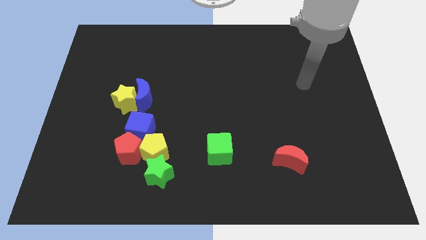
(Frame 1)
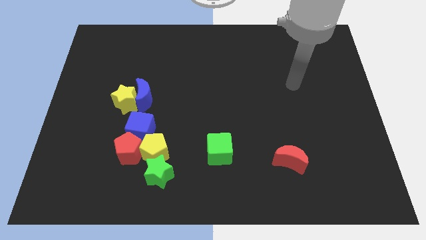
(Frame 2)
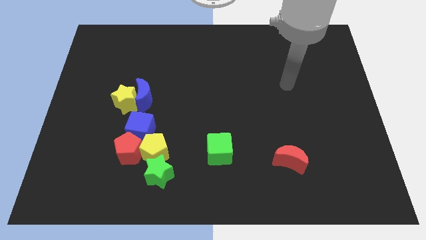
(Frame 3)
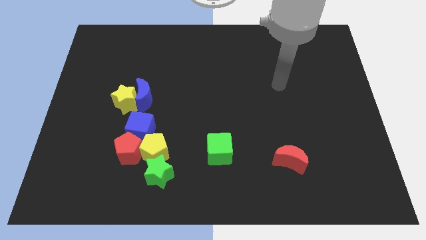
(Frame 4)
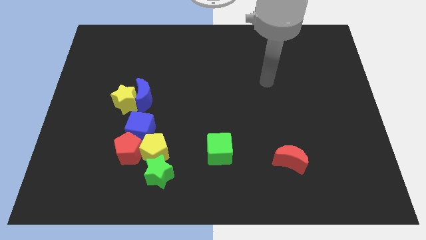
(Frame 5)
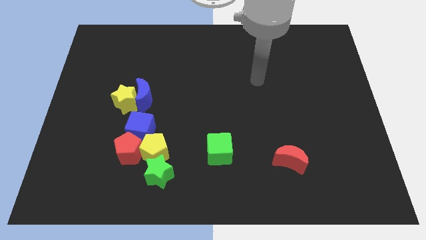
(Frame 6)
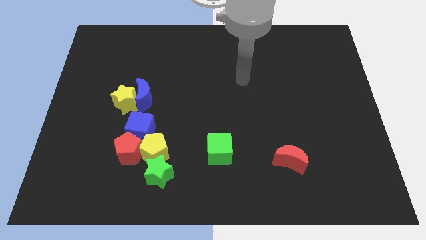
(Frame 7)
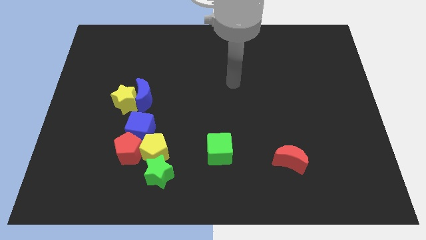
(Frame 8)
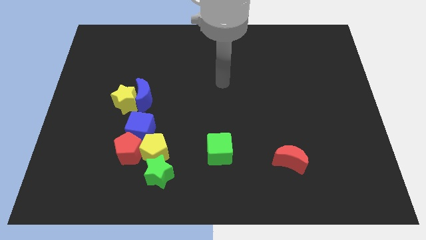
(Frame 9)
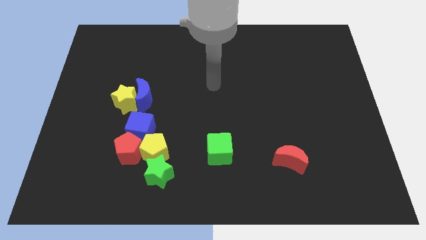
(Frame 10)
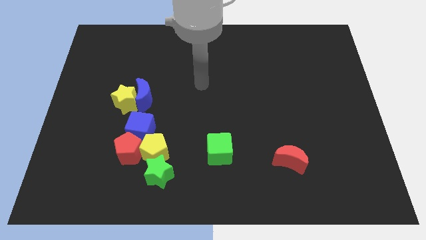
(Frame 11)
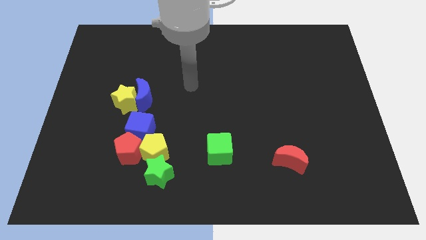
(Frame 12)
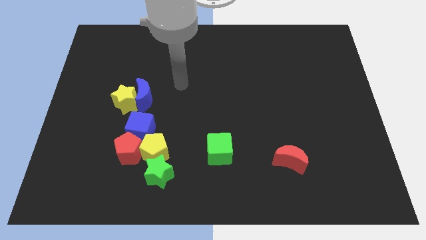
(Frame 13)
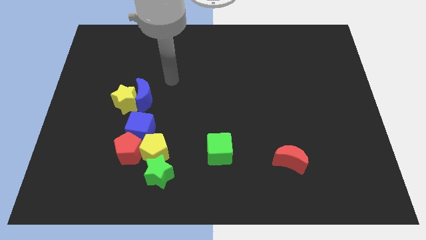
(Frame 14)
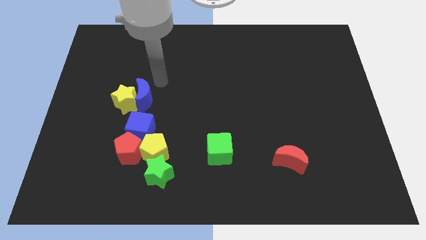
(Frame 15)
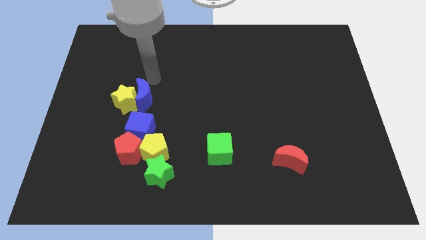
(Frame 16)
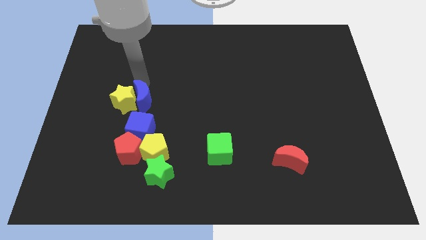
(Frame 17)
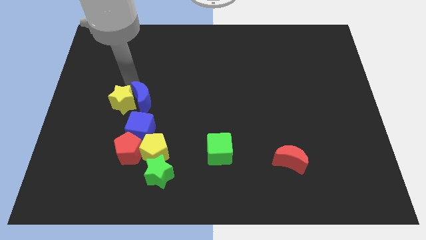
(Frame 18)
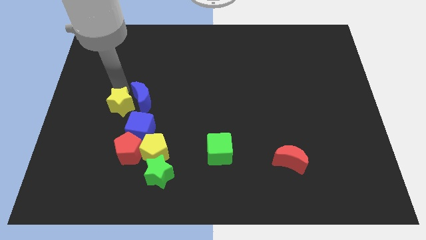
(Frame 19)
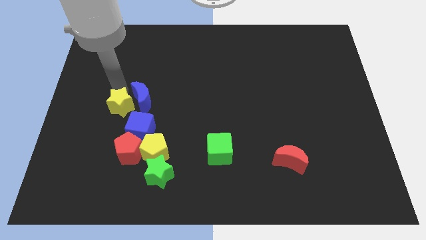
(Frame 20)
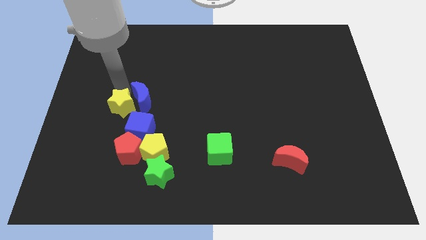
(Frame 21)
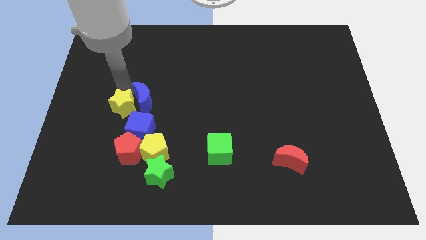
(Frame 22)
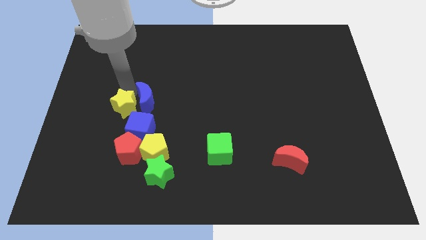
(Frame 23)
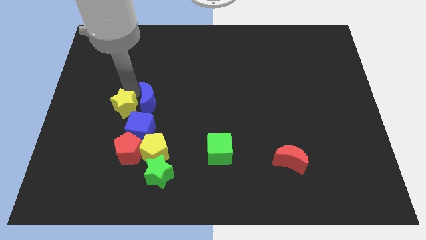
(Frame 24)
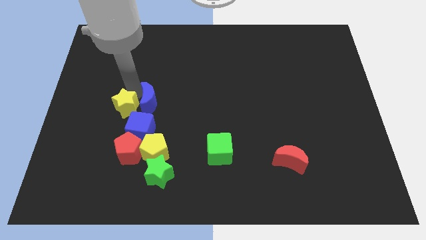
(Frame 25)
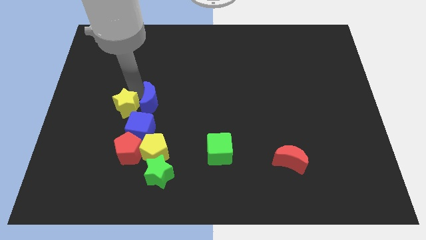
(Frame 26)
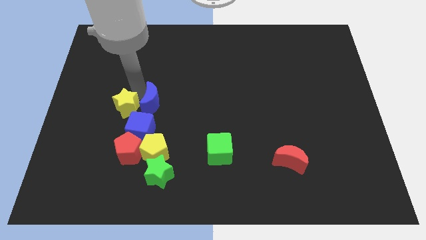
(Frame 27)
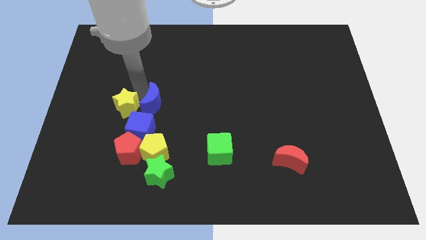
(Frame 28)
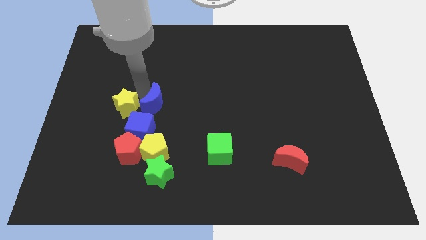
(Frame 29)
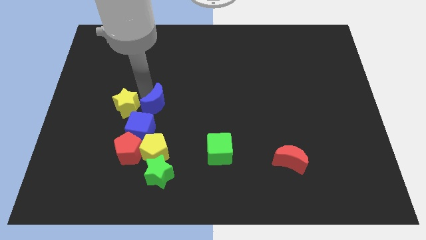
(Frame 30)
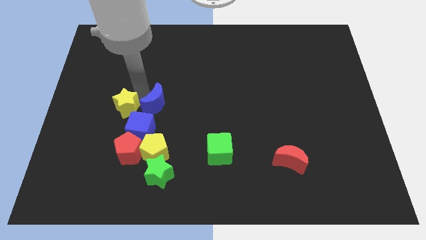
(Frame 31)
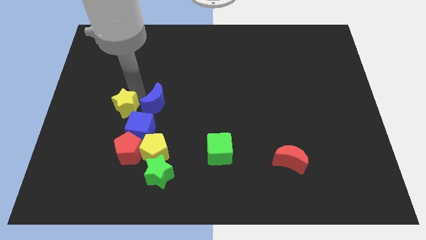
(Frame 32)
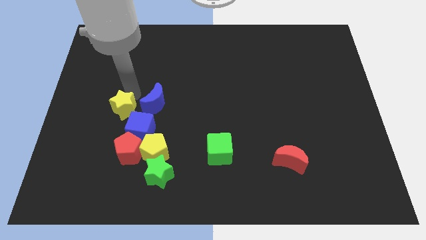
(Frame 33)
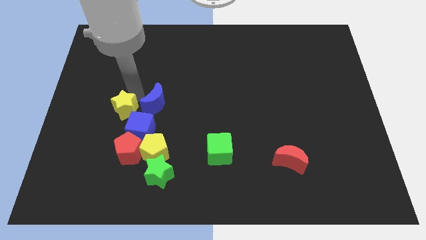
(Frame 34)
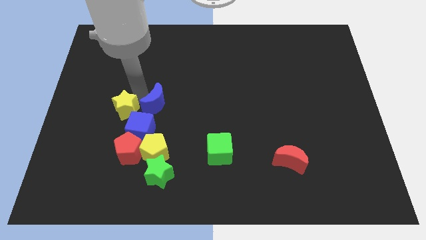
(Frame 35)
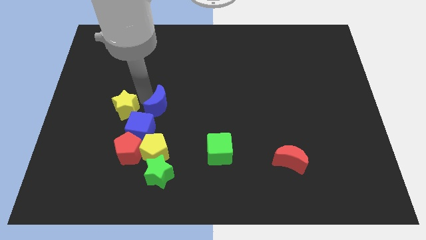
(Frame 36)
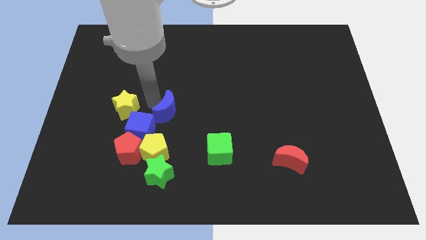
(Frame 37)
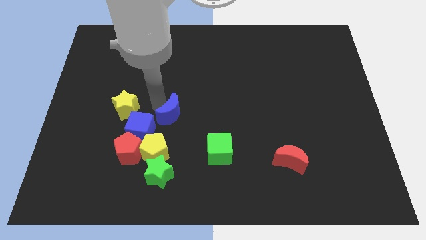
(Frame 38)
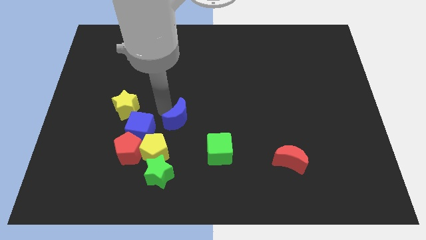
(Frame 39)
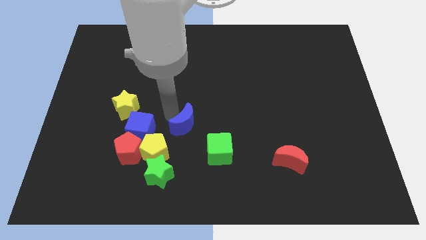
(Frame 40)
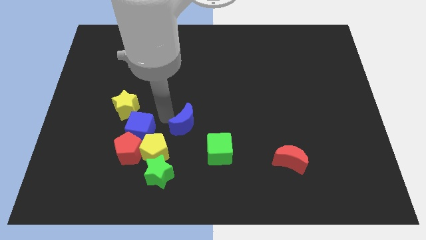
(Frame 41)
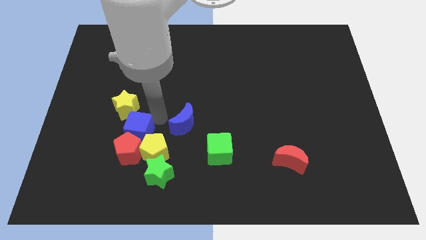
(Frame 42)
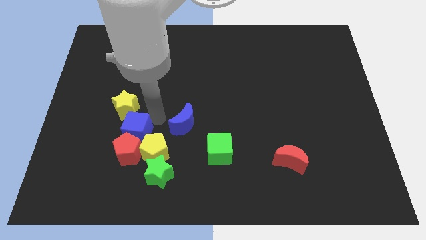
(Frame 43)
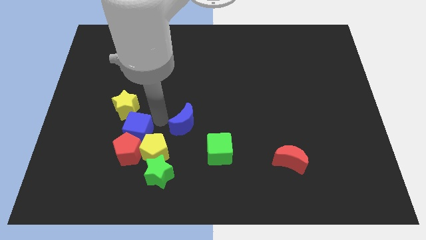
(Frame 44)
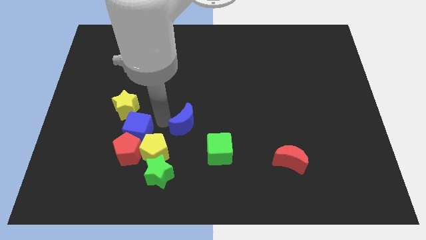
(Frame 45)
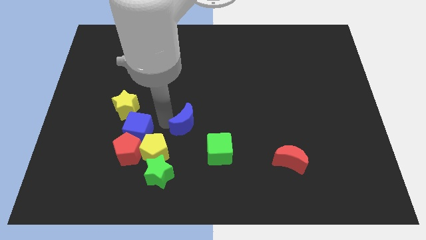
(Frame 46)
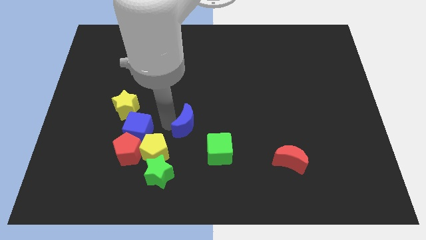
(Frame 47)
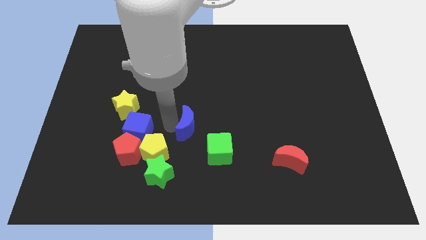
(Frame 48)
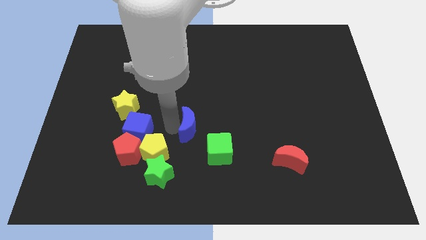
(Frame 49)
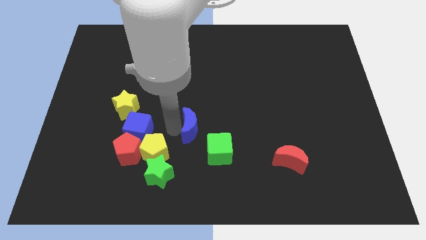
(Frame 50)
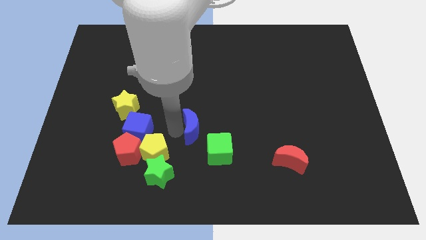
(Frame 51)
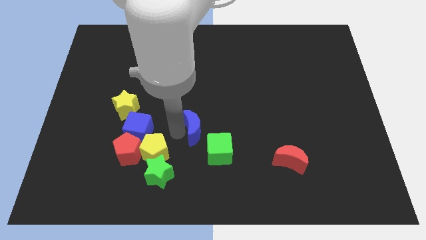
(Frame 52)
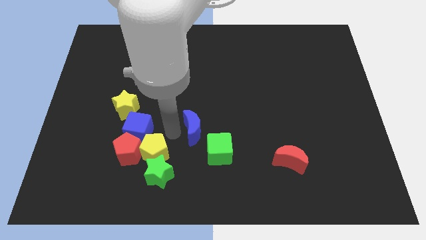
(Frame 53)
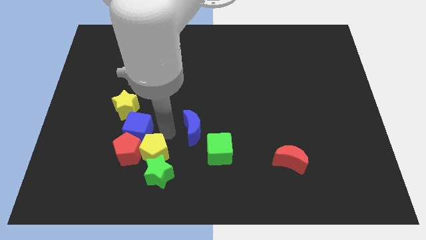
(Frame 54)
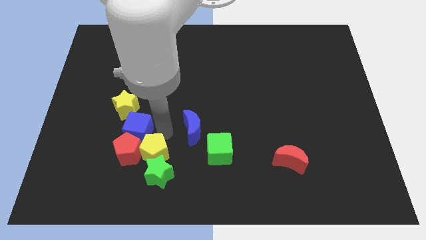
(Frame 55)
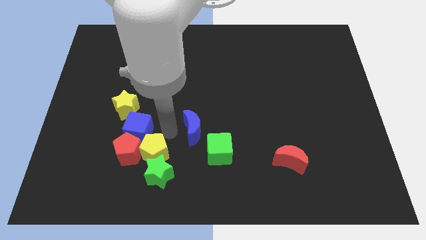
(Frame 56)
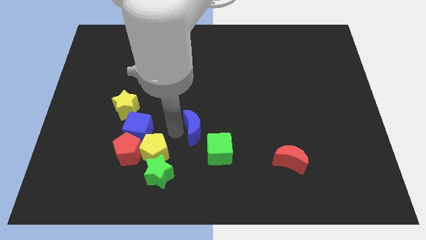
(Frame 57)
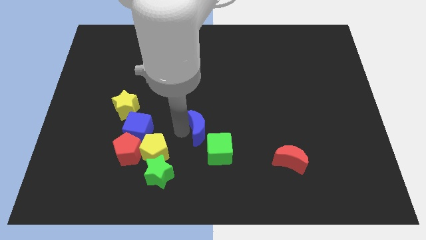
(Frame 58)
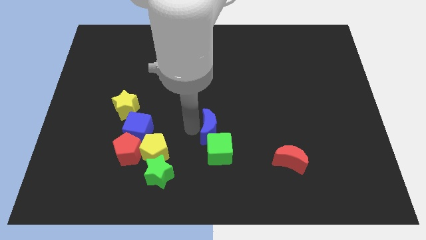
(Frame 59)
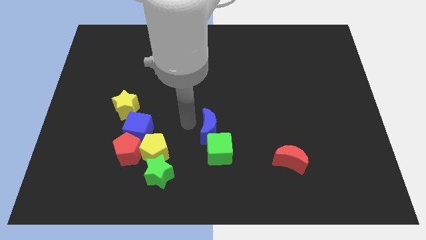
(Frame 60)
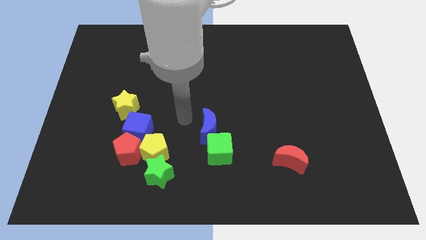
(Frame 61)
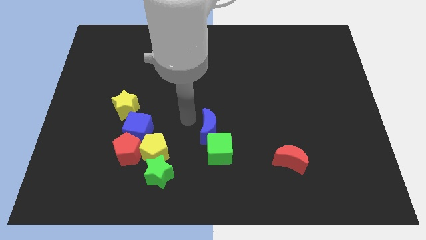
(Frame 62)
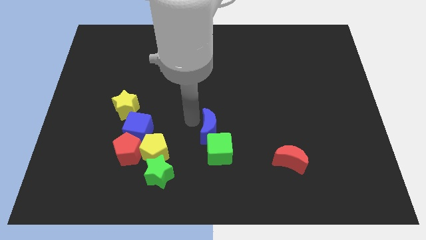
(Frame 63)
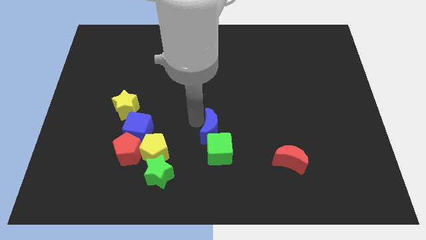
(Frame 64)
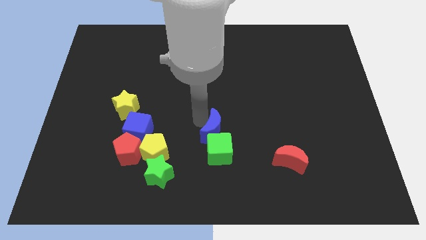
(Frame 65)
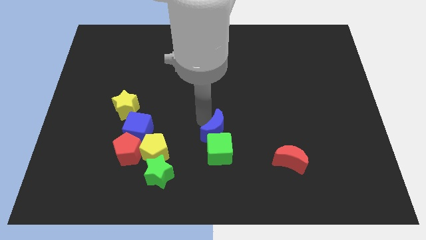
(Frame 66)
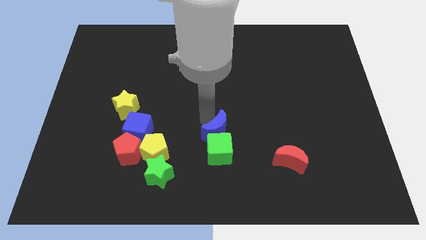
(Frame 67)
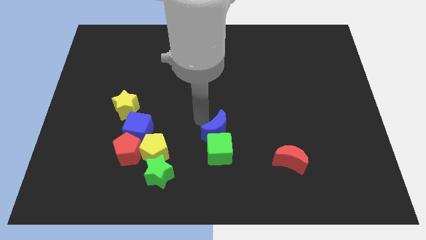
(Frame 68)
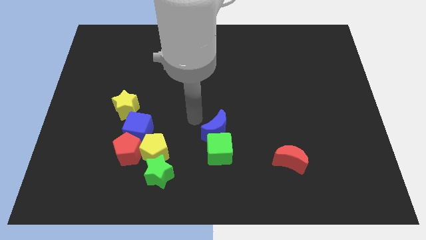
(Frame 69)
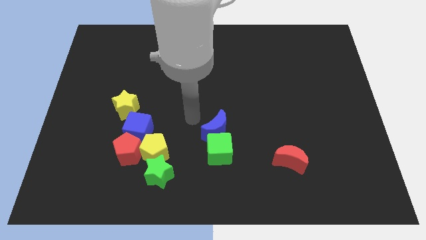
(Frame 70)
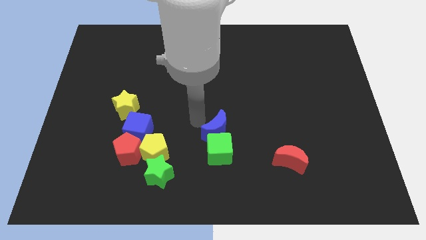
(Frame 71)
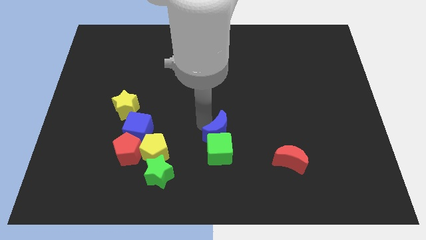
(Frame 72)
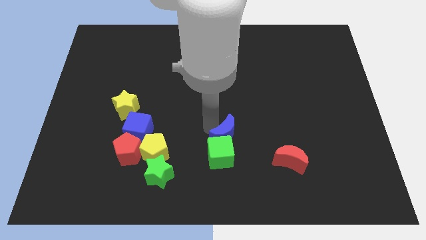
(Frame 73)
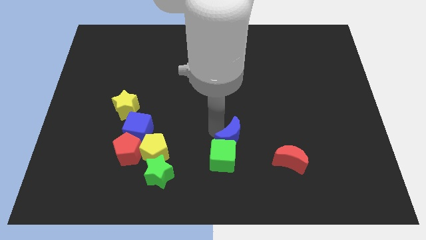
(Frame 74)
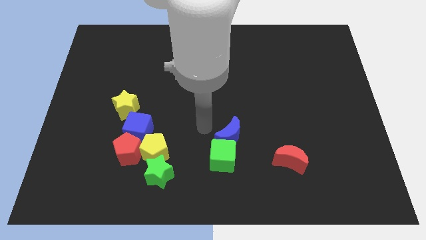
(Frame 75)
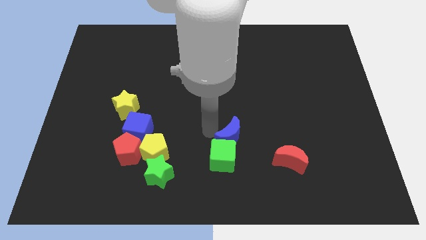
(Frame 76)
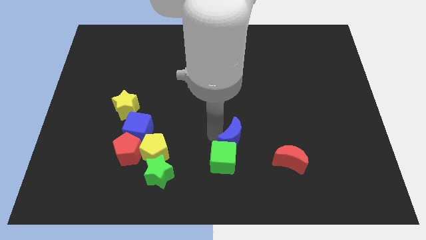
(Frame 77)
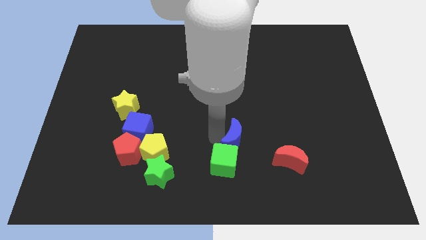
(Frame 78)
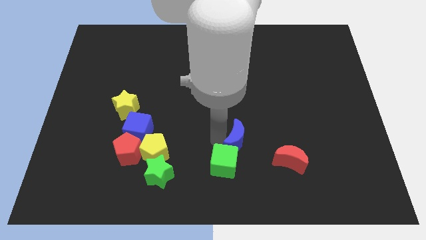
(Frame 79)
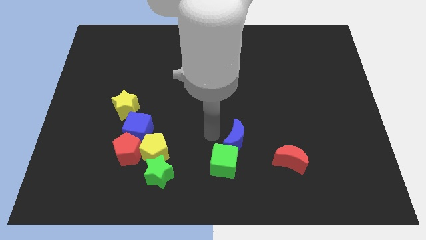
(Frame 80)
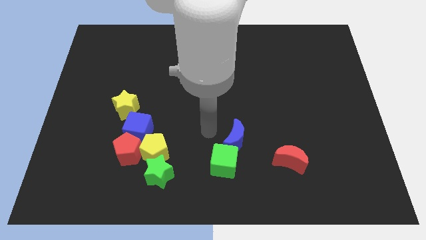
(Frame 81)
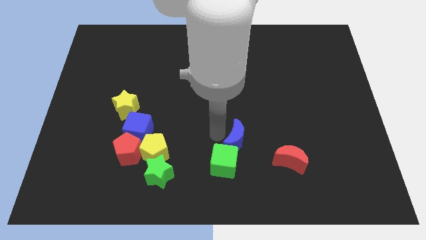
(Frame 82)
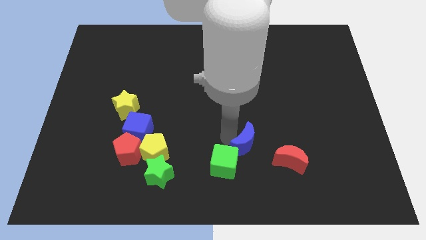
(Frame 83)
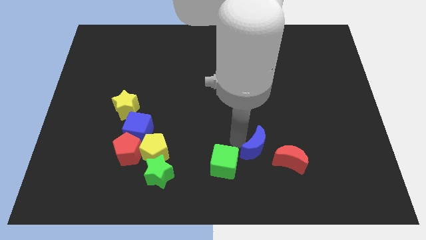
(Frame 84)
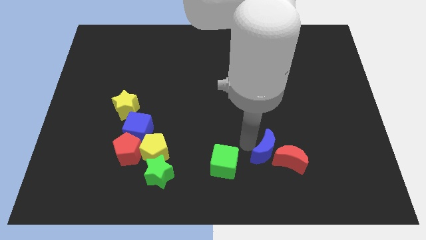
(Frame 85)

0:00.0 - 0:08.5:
put the blue moon to the red moon
